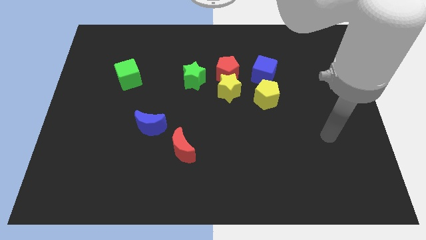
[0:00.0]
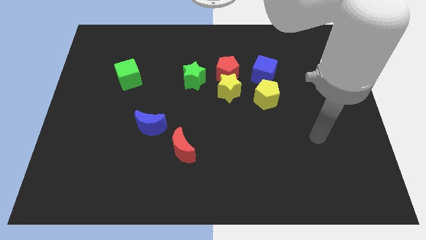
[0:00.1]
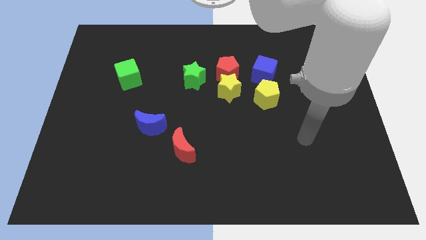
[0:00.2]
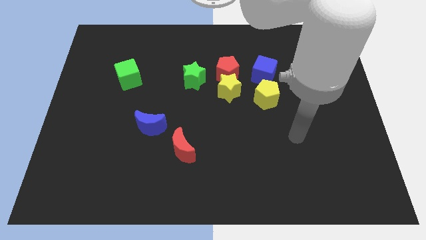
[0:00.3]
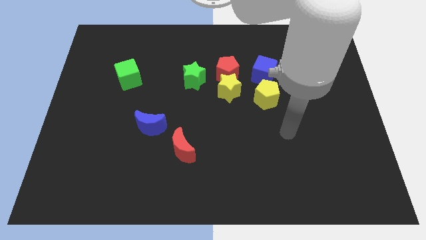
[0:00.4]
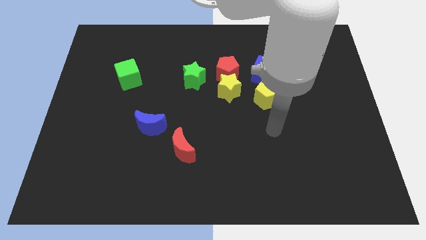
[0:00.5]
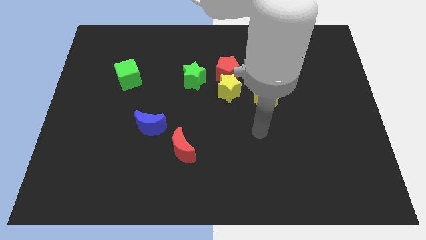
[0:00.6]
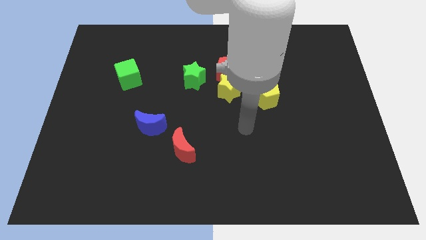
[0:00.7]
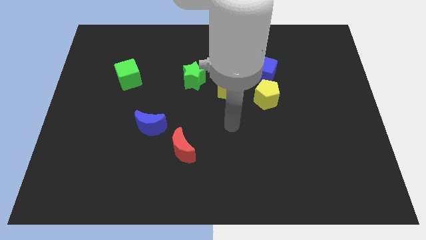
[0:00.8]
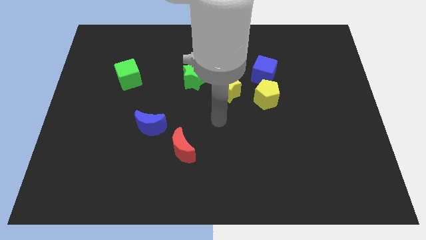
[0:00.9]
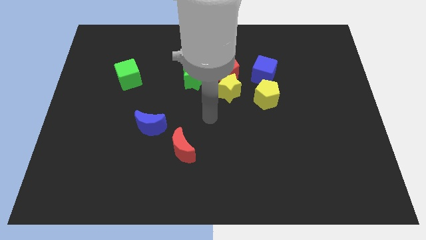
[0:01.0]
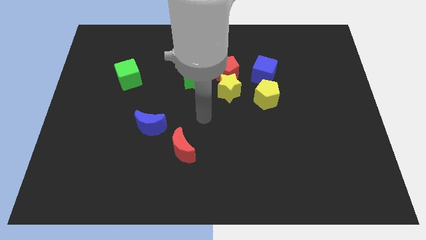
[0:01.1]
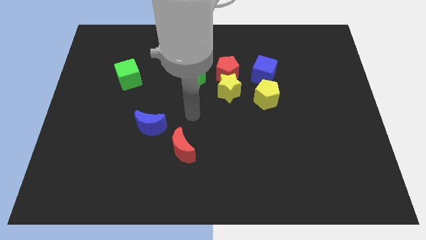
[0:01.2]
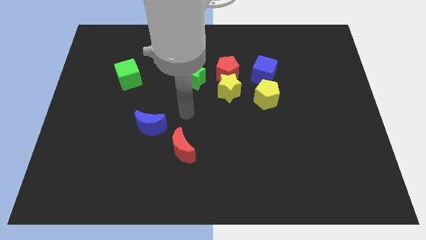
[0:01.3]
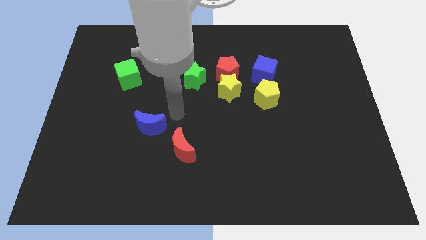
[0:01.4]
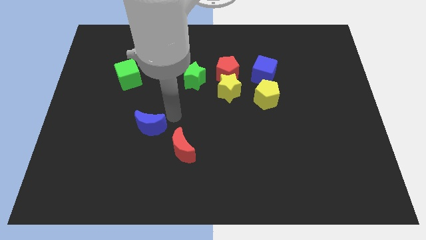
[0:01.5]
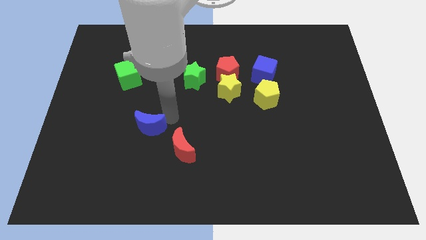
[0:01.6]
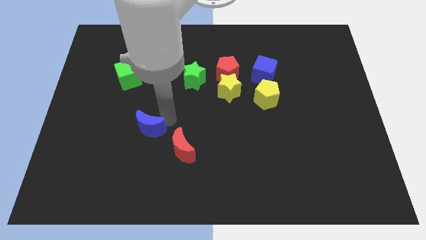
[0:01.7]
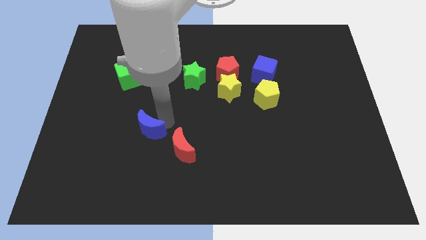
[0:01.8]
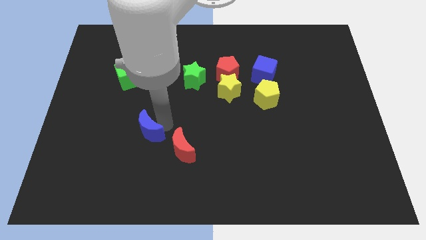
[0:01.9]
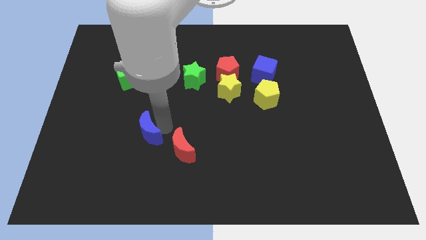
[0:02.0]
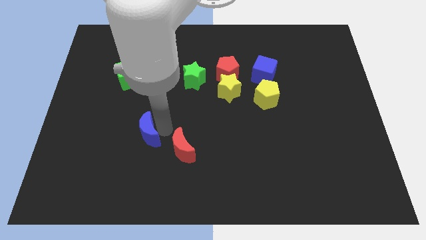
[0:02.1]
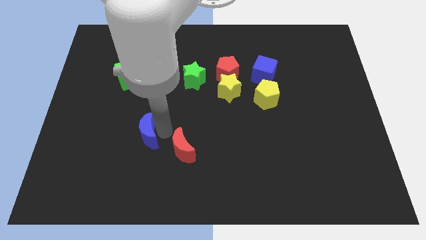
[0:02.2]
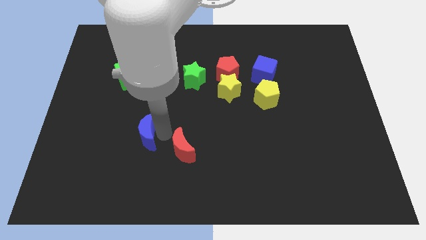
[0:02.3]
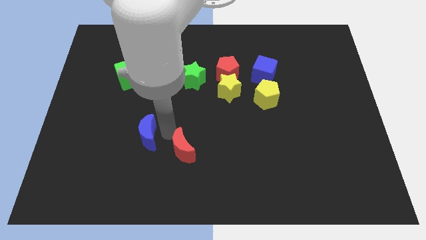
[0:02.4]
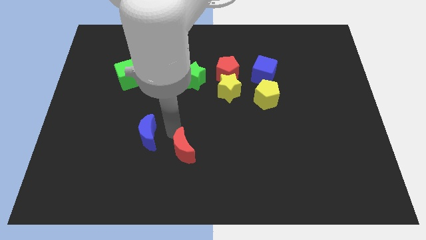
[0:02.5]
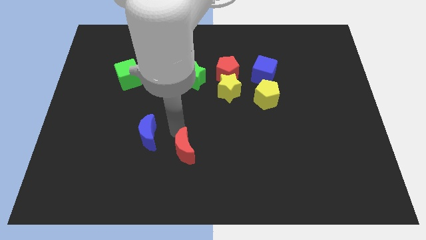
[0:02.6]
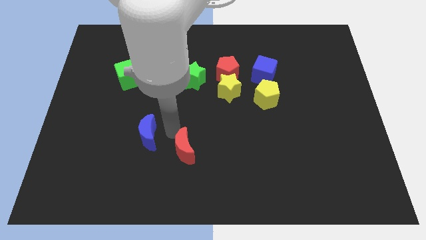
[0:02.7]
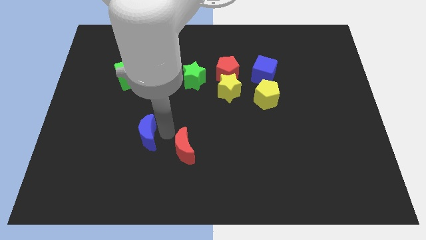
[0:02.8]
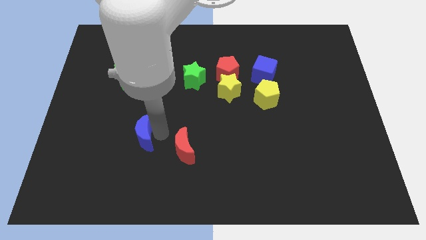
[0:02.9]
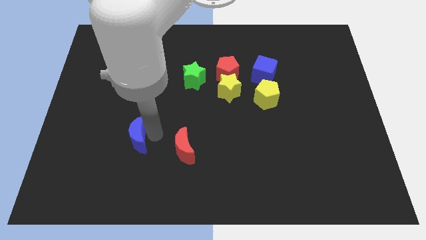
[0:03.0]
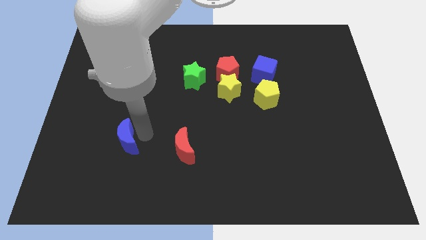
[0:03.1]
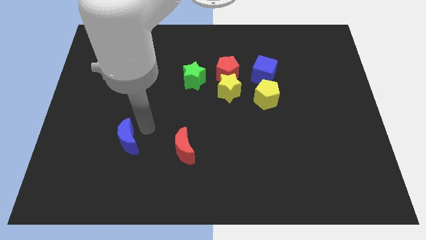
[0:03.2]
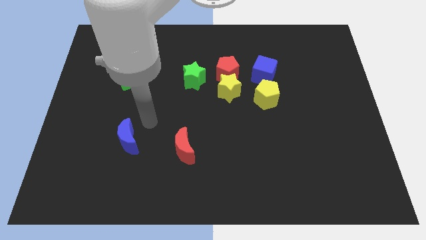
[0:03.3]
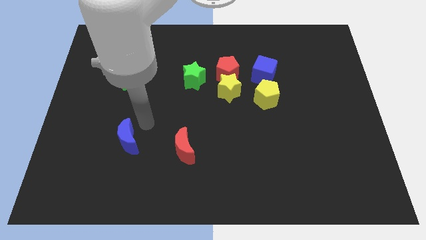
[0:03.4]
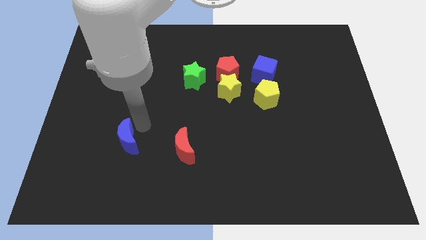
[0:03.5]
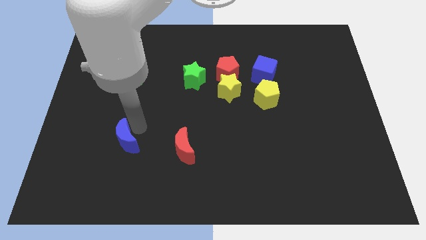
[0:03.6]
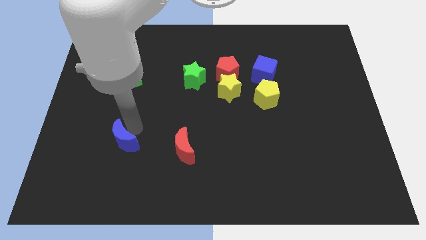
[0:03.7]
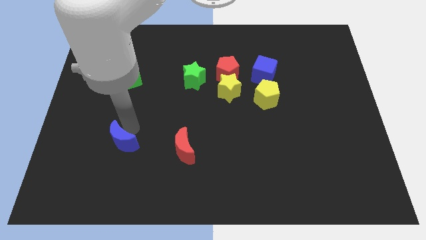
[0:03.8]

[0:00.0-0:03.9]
move the blue moon down and left diagonally a little

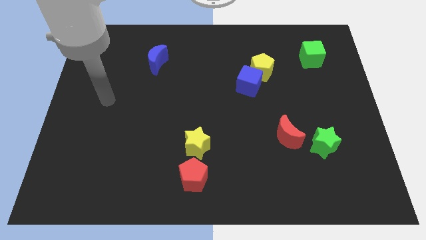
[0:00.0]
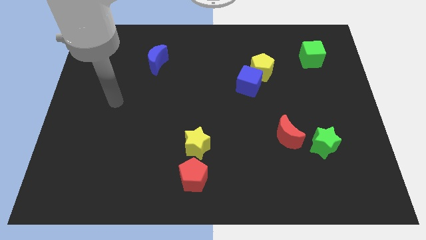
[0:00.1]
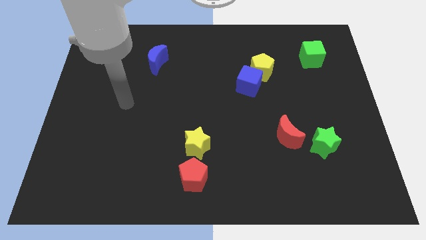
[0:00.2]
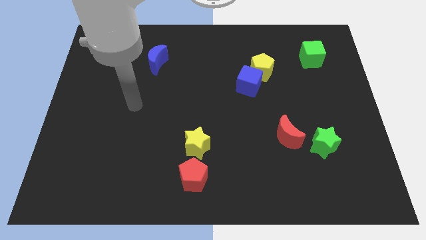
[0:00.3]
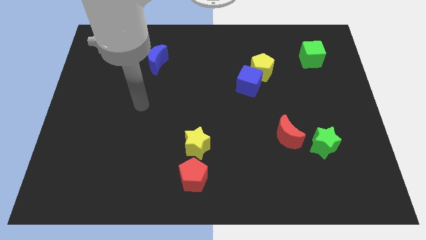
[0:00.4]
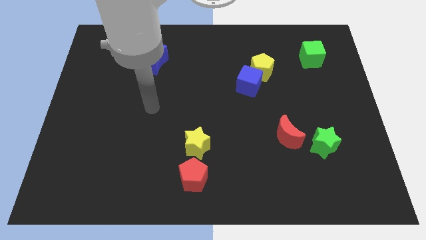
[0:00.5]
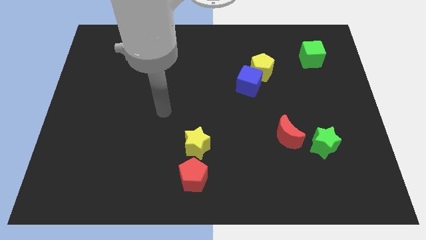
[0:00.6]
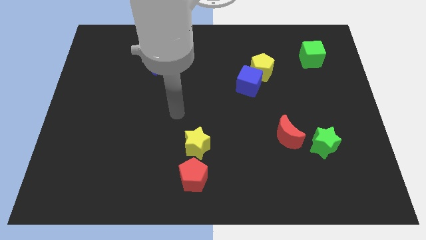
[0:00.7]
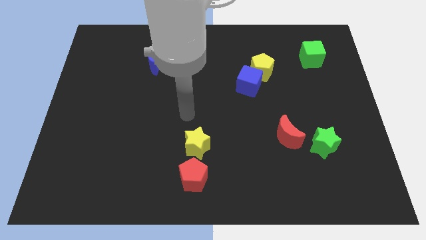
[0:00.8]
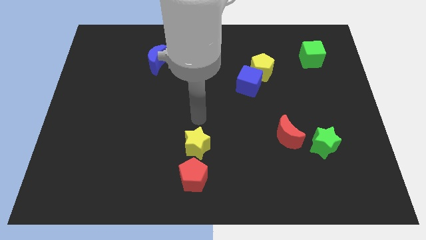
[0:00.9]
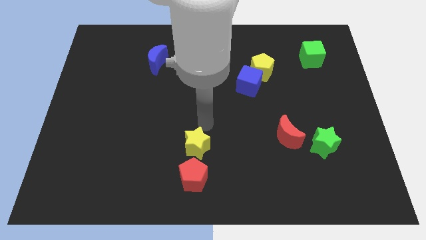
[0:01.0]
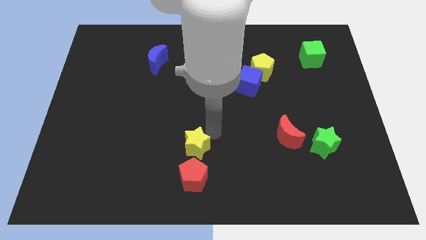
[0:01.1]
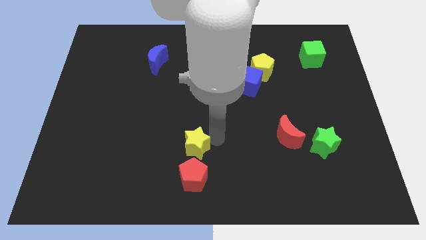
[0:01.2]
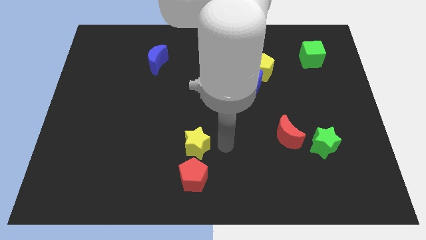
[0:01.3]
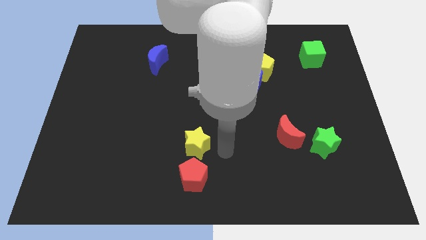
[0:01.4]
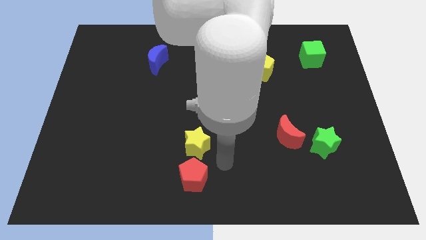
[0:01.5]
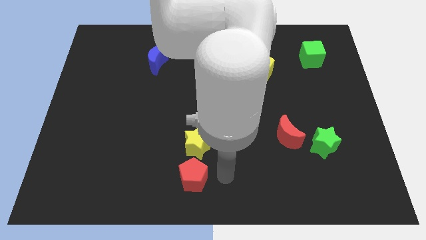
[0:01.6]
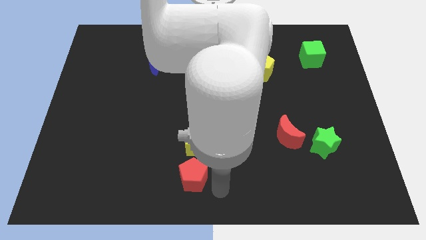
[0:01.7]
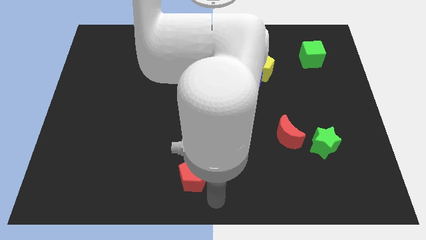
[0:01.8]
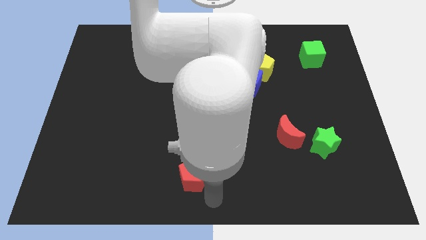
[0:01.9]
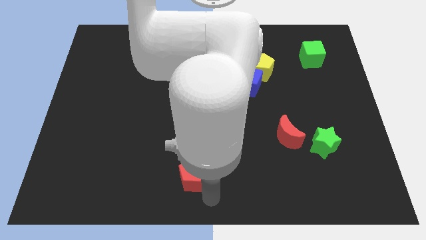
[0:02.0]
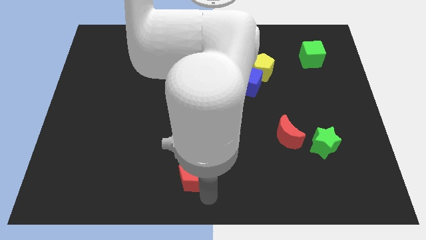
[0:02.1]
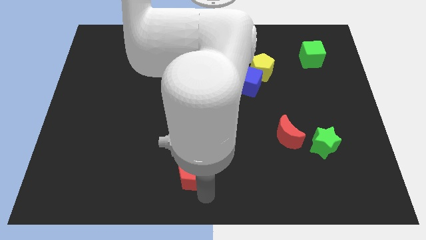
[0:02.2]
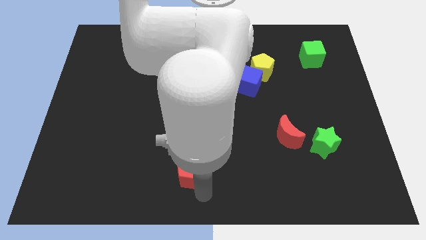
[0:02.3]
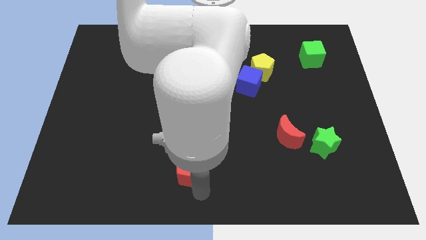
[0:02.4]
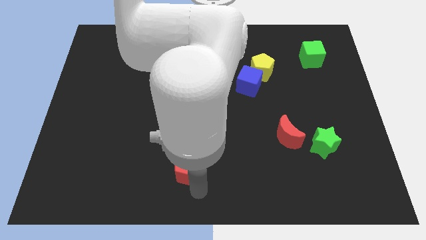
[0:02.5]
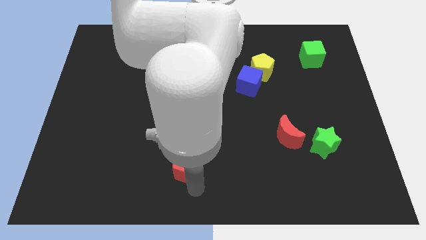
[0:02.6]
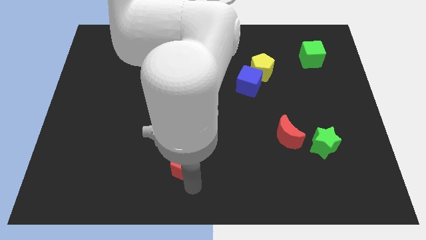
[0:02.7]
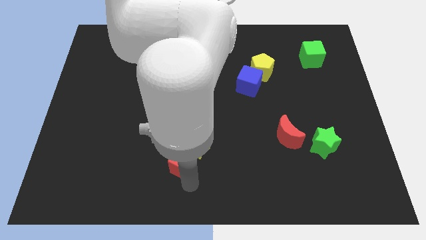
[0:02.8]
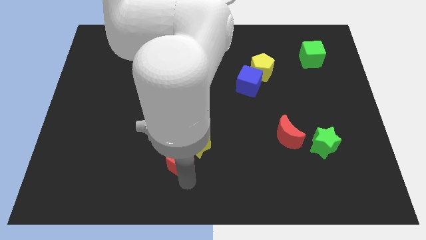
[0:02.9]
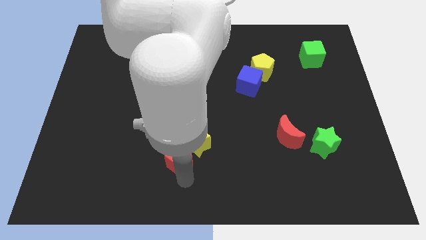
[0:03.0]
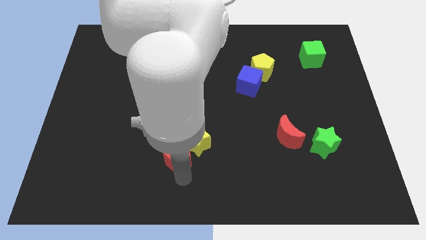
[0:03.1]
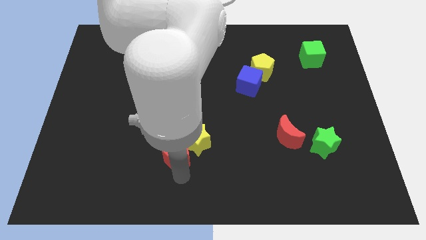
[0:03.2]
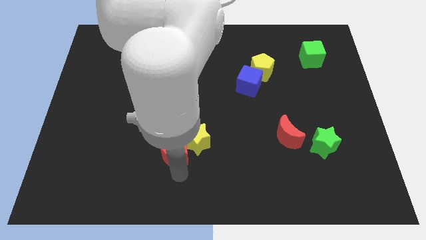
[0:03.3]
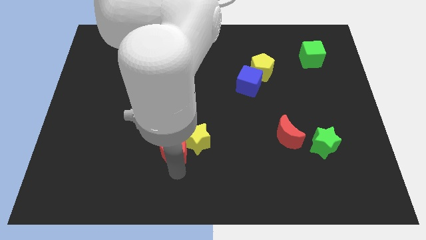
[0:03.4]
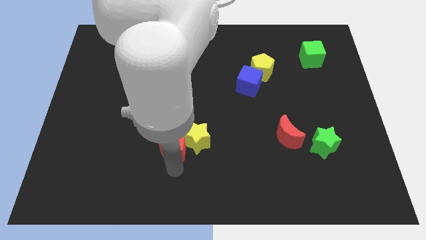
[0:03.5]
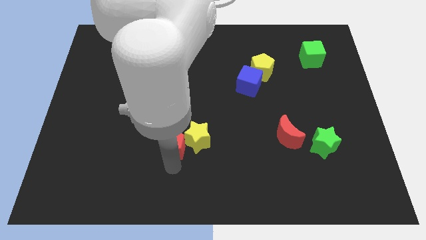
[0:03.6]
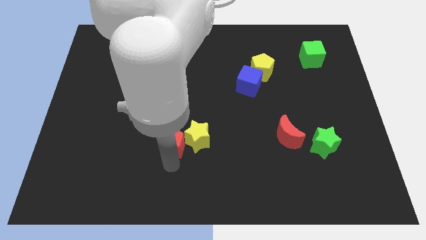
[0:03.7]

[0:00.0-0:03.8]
push the red pentagon upwards slightly
